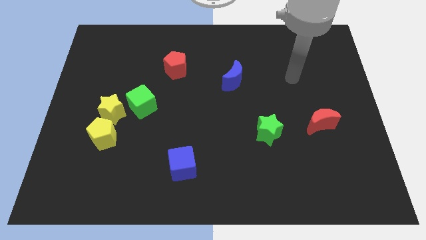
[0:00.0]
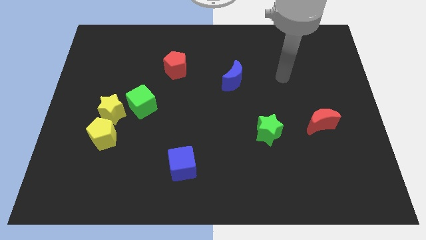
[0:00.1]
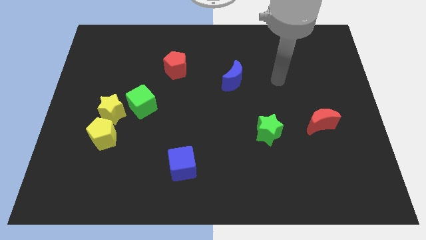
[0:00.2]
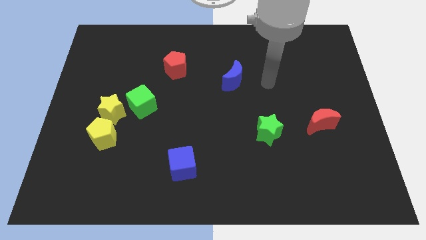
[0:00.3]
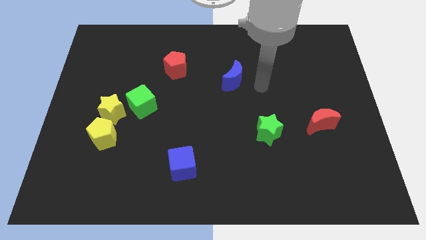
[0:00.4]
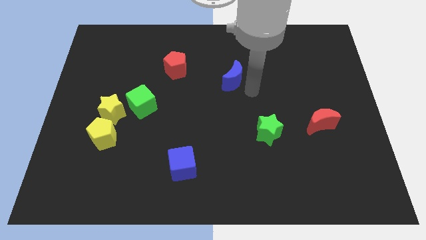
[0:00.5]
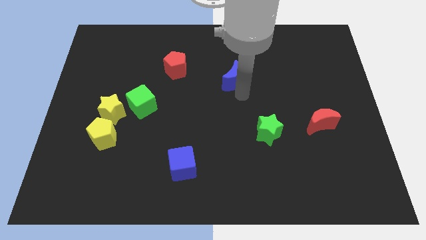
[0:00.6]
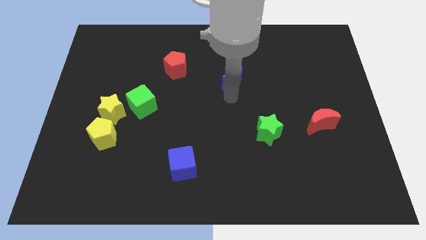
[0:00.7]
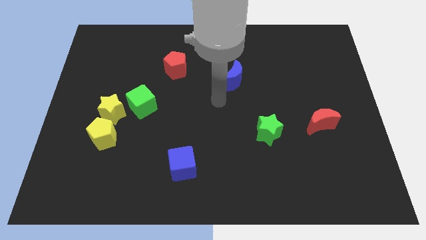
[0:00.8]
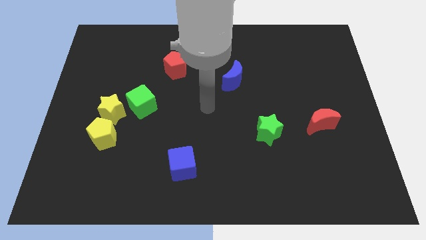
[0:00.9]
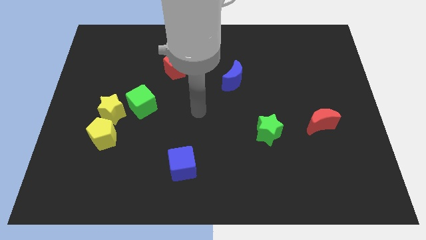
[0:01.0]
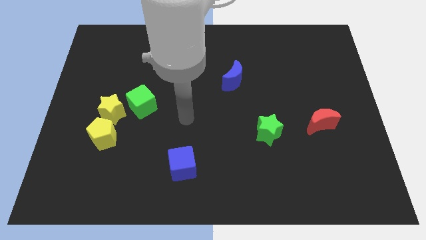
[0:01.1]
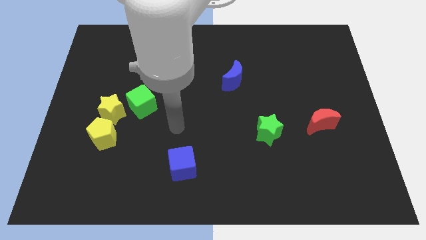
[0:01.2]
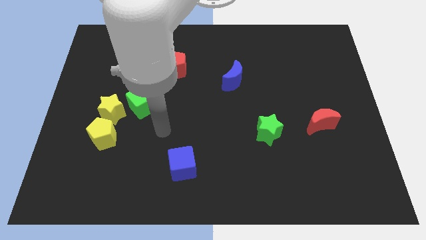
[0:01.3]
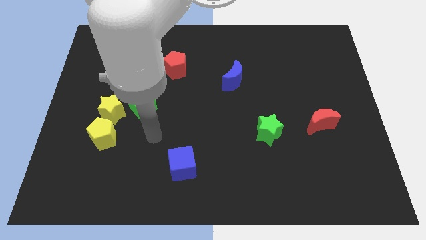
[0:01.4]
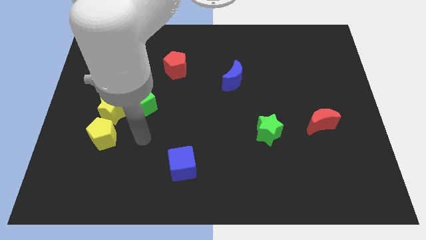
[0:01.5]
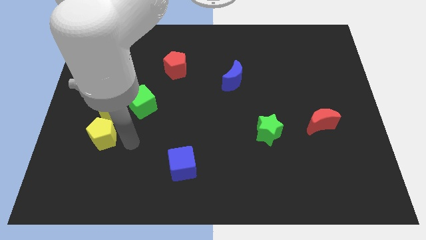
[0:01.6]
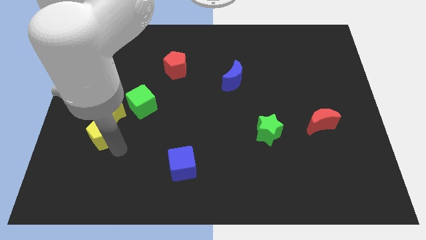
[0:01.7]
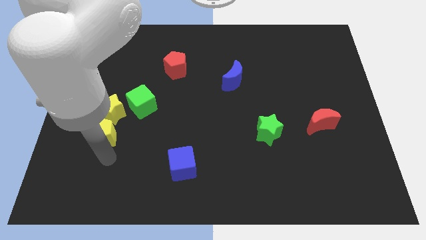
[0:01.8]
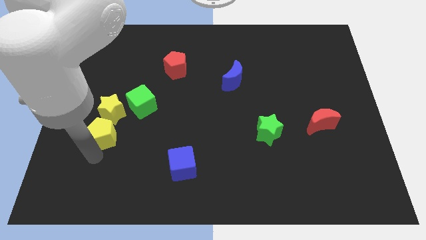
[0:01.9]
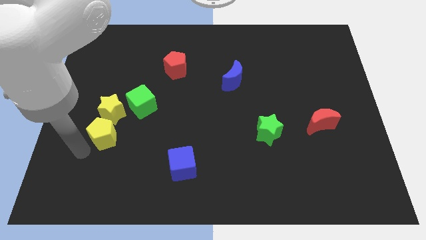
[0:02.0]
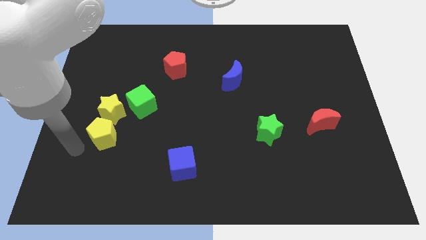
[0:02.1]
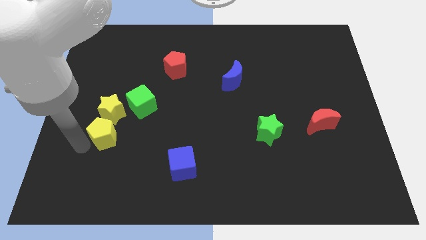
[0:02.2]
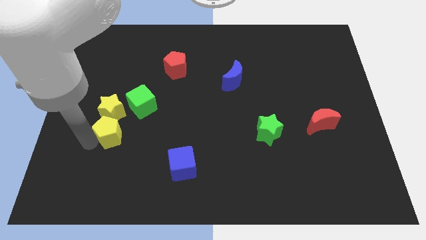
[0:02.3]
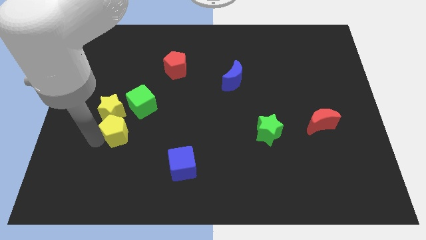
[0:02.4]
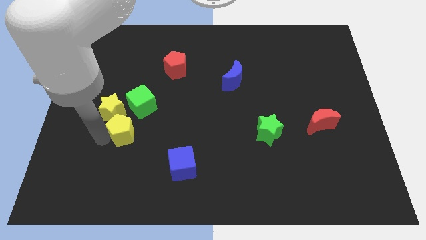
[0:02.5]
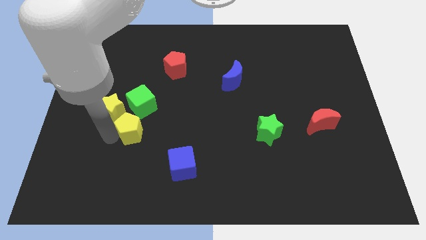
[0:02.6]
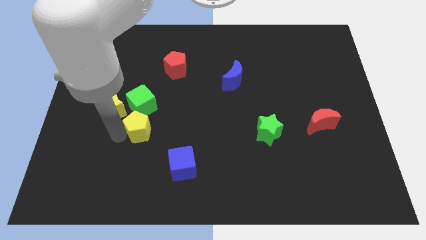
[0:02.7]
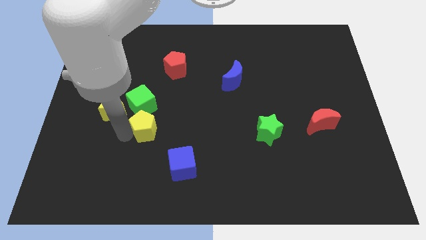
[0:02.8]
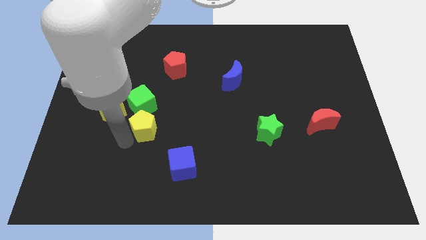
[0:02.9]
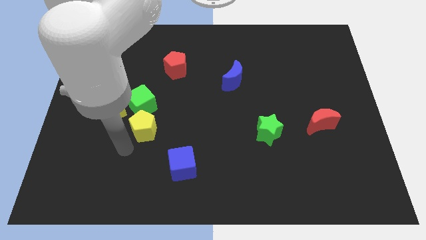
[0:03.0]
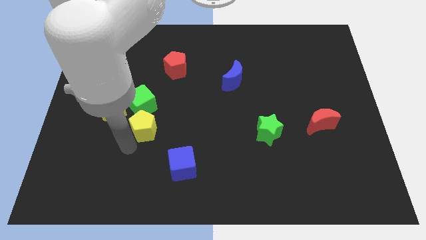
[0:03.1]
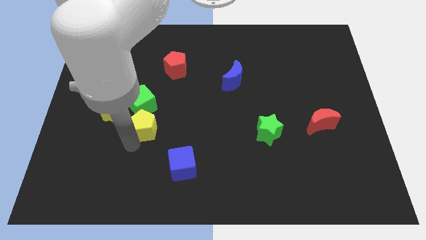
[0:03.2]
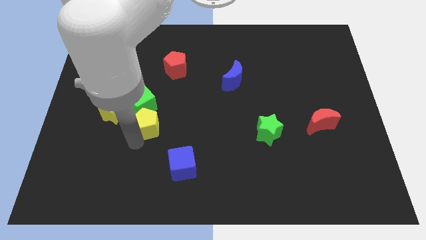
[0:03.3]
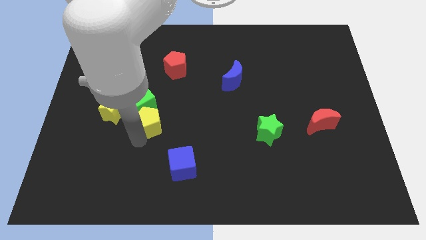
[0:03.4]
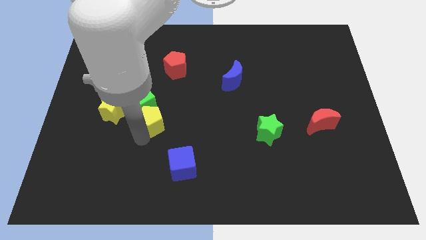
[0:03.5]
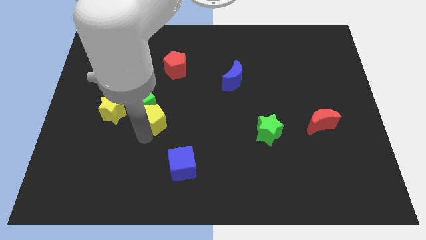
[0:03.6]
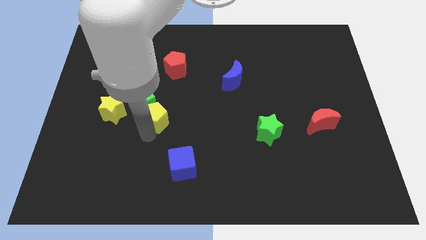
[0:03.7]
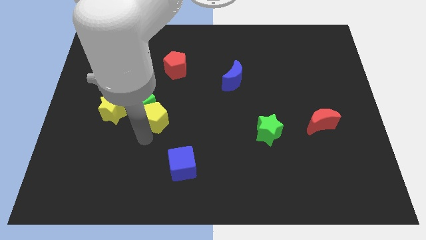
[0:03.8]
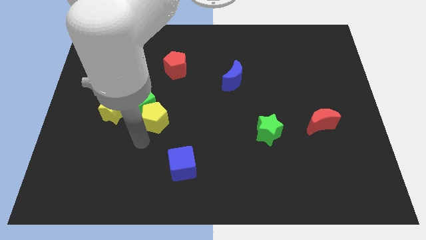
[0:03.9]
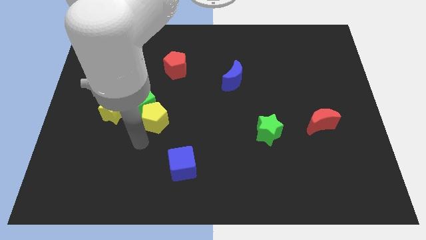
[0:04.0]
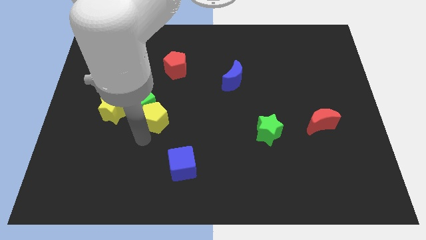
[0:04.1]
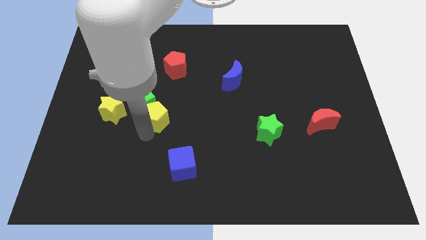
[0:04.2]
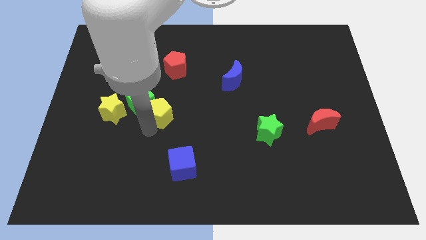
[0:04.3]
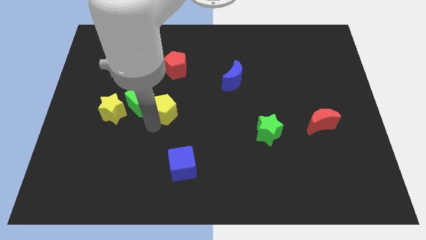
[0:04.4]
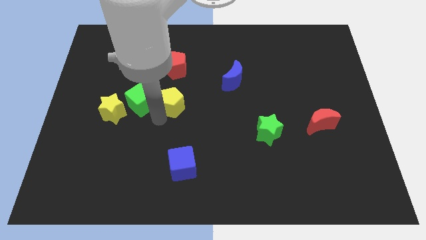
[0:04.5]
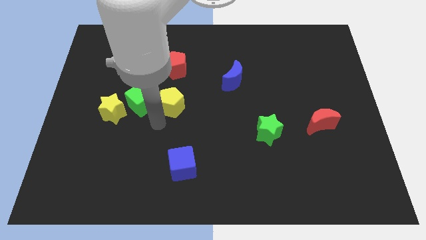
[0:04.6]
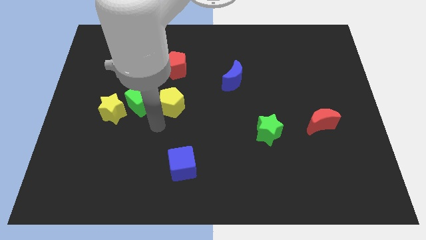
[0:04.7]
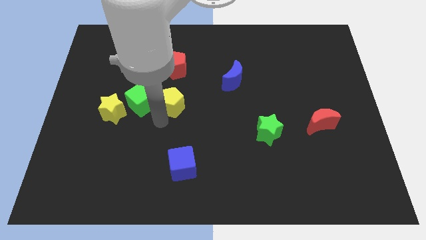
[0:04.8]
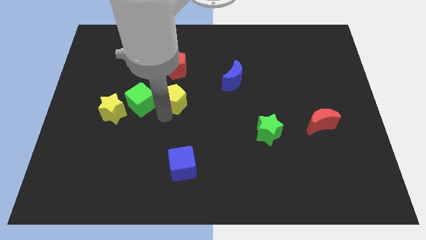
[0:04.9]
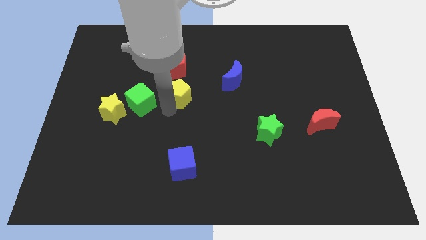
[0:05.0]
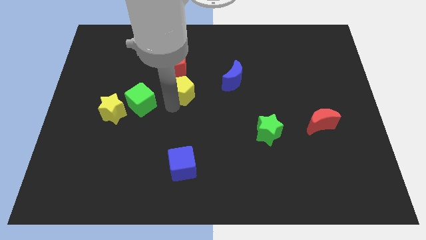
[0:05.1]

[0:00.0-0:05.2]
move the yellow pentagon up and then to the right

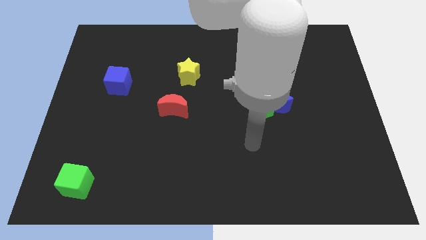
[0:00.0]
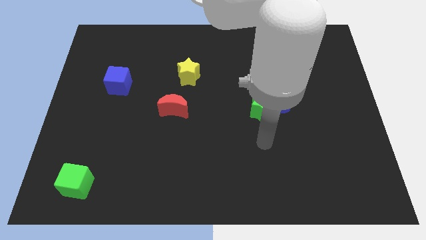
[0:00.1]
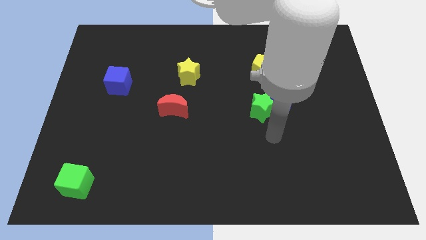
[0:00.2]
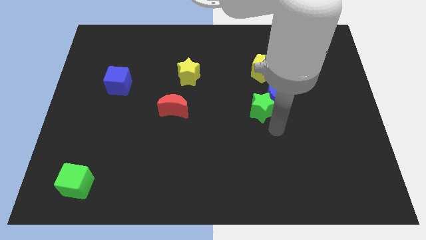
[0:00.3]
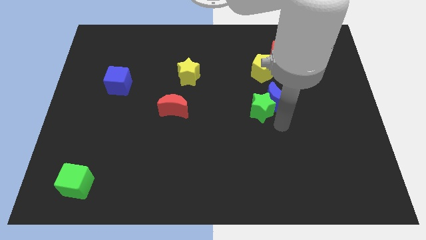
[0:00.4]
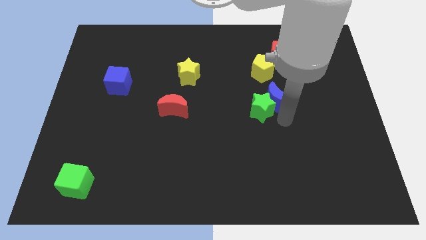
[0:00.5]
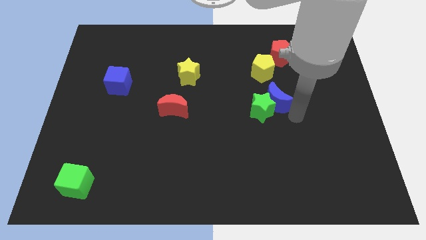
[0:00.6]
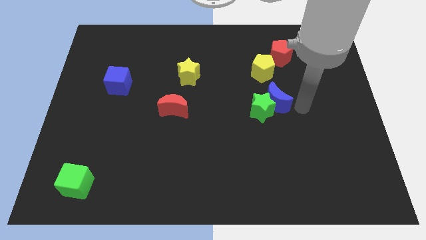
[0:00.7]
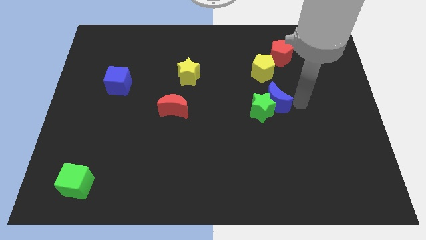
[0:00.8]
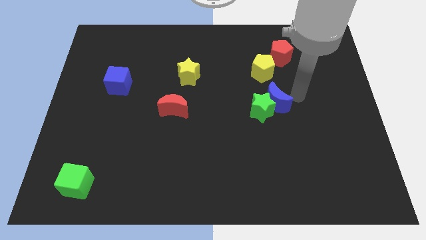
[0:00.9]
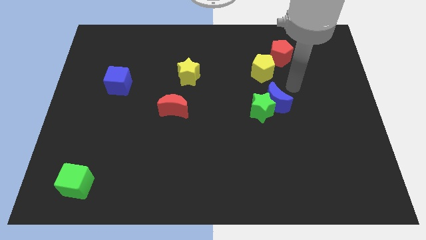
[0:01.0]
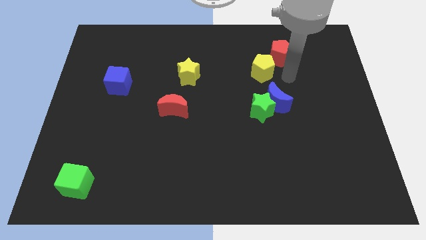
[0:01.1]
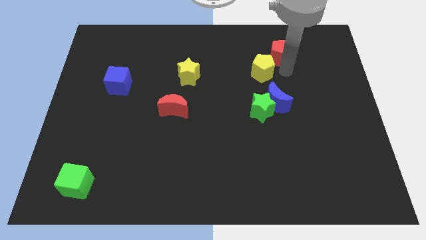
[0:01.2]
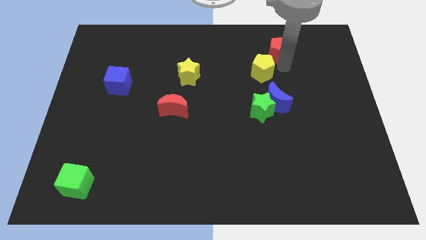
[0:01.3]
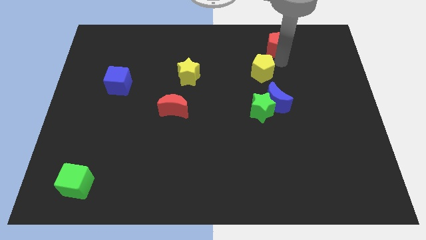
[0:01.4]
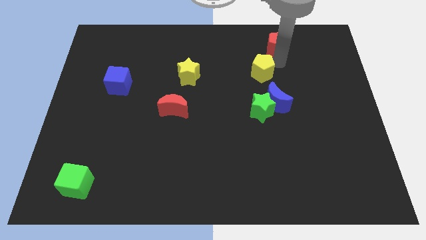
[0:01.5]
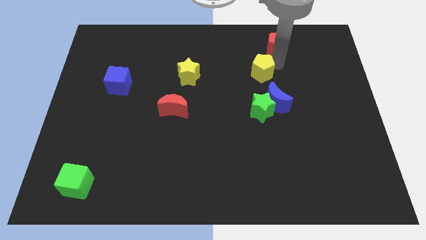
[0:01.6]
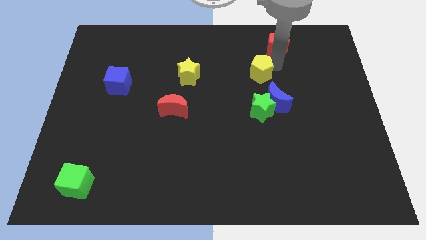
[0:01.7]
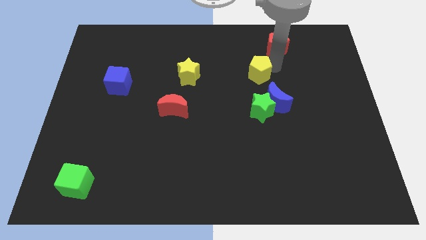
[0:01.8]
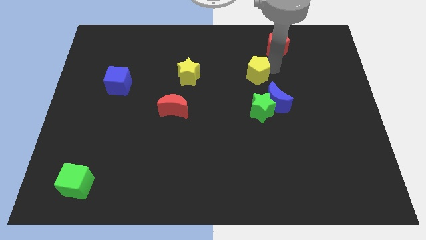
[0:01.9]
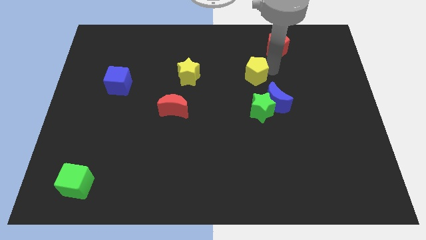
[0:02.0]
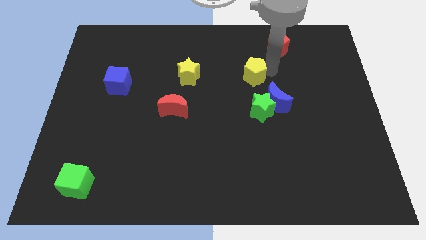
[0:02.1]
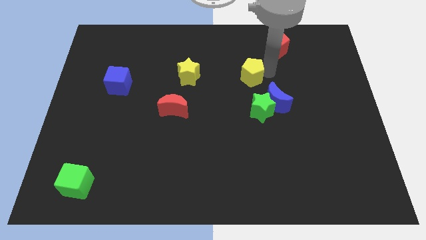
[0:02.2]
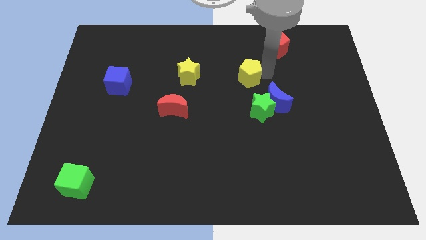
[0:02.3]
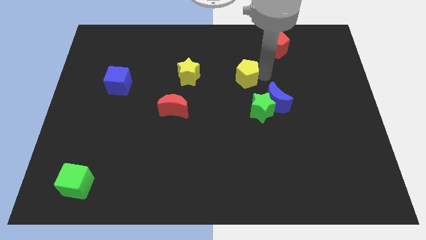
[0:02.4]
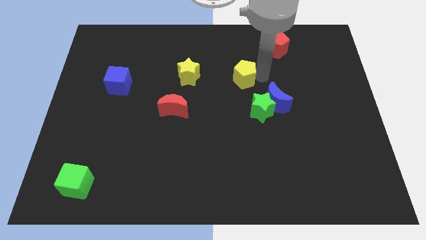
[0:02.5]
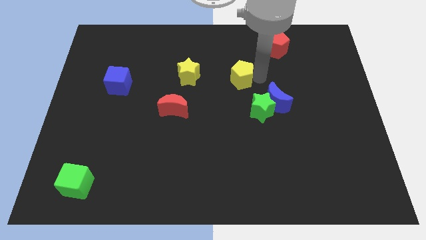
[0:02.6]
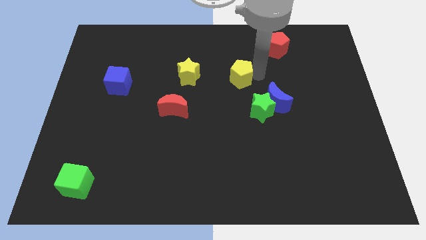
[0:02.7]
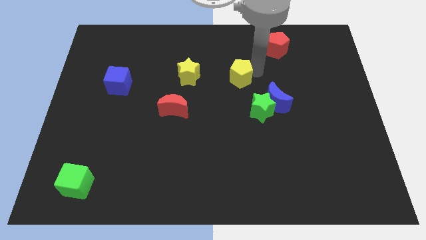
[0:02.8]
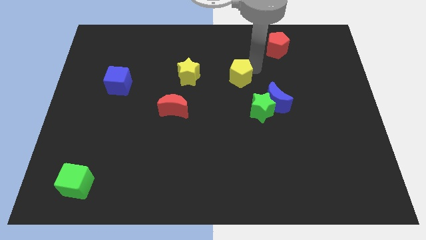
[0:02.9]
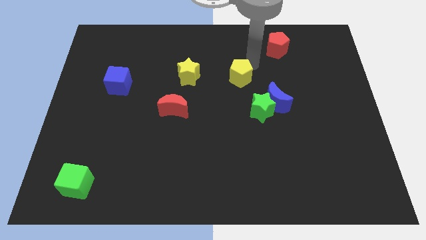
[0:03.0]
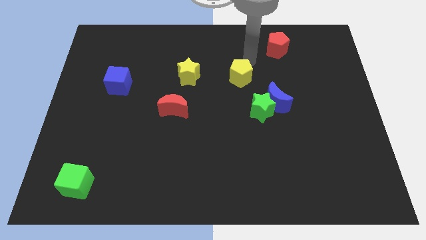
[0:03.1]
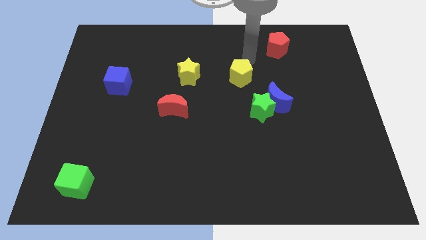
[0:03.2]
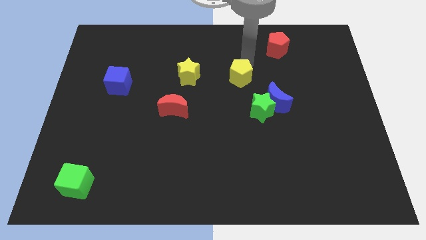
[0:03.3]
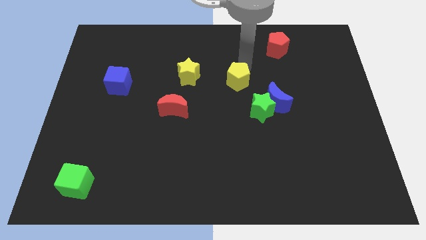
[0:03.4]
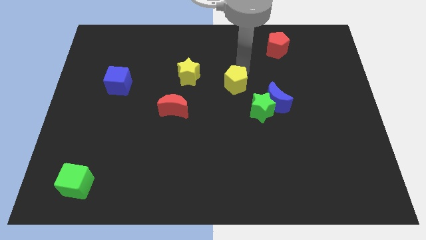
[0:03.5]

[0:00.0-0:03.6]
push the yellow pentagon somewhat diagonally down and left
